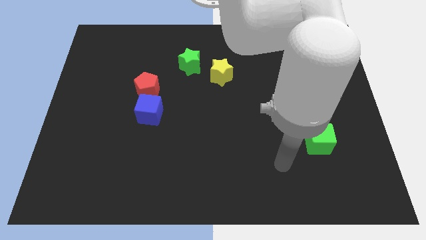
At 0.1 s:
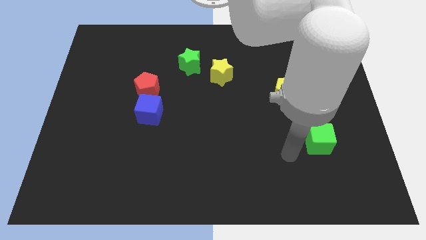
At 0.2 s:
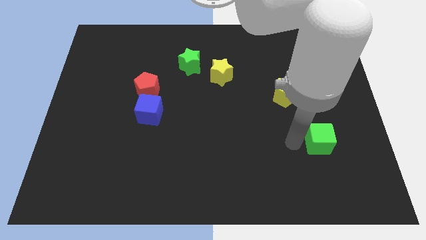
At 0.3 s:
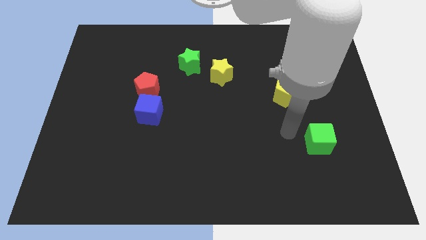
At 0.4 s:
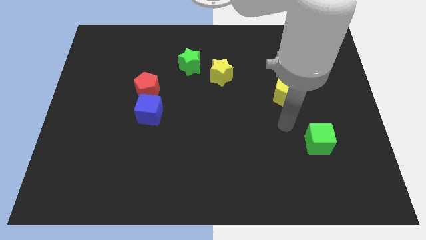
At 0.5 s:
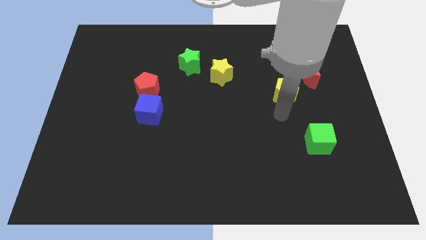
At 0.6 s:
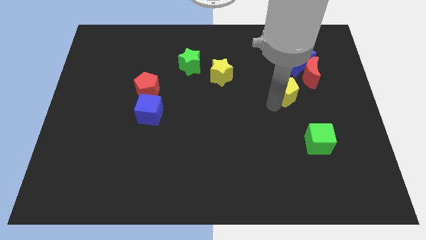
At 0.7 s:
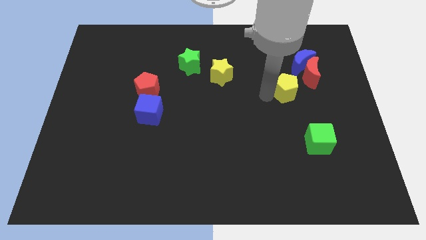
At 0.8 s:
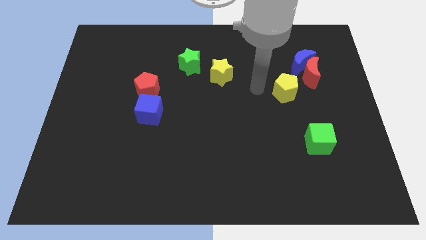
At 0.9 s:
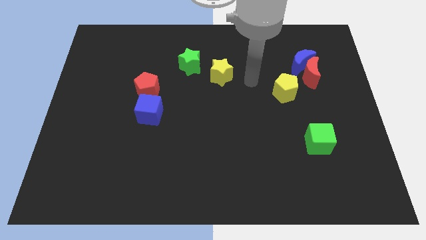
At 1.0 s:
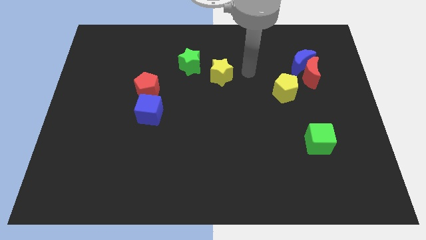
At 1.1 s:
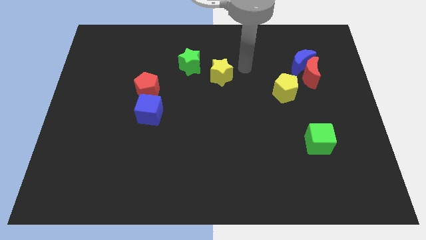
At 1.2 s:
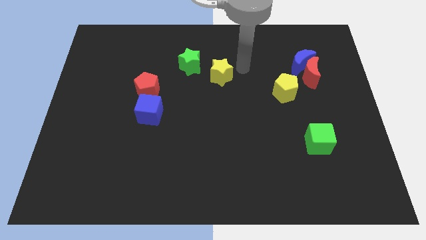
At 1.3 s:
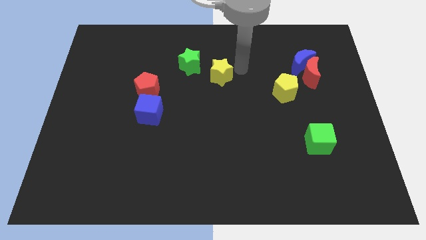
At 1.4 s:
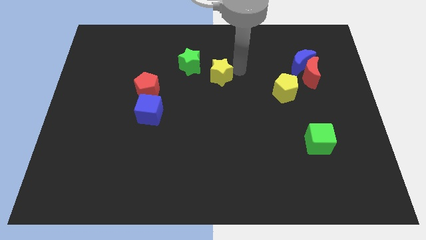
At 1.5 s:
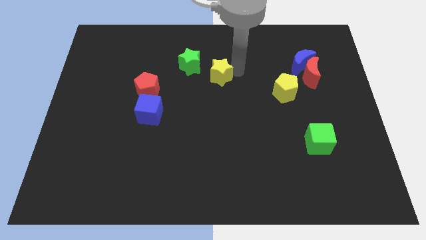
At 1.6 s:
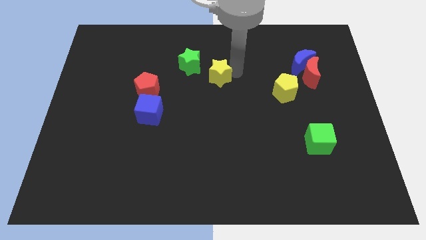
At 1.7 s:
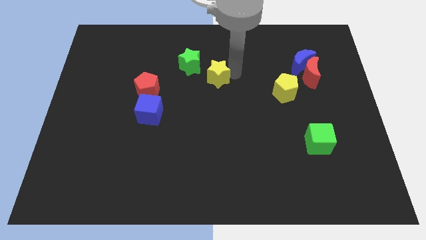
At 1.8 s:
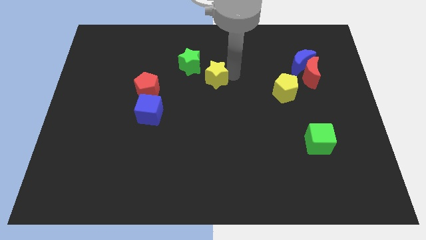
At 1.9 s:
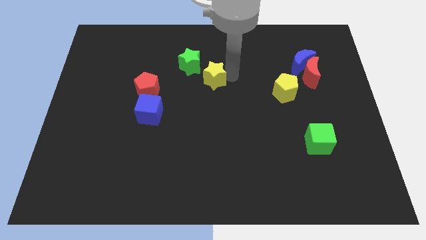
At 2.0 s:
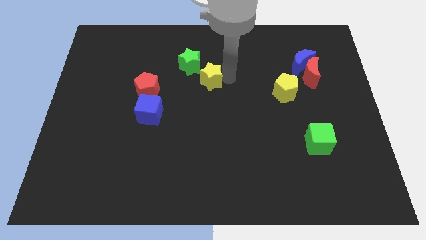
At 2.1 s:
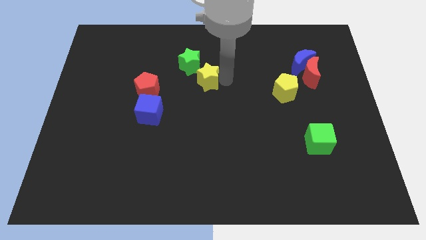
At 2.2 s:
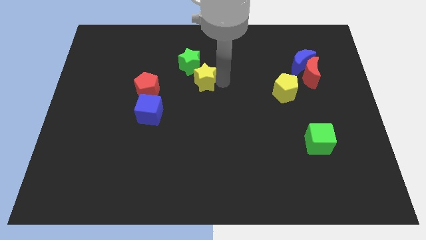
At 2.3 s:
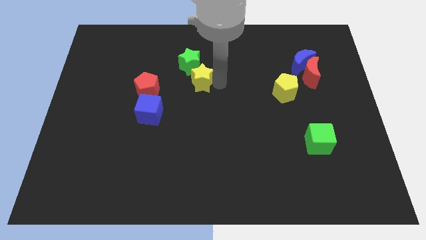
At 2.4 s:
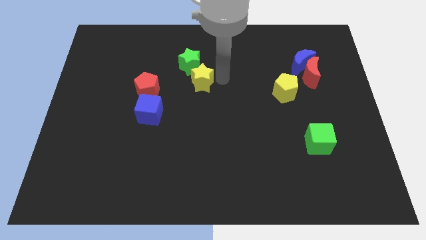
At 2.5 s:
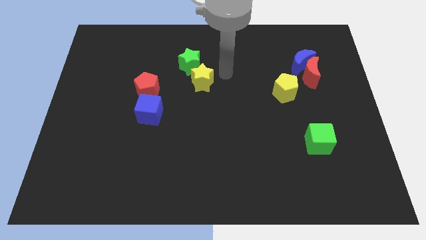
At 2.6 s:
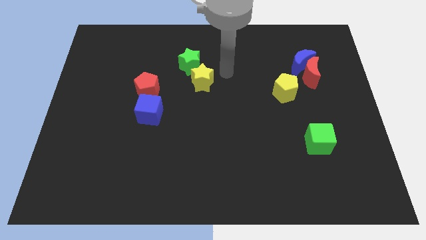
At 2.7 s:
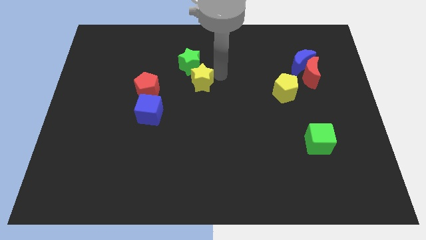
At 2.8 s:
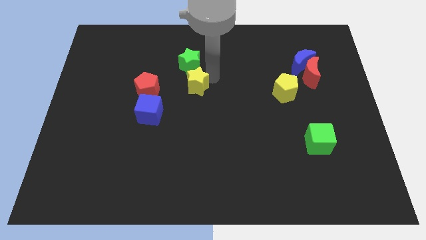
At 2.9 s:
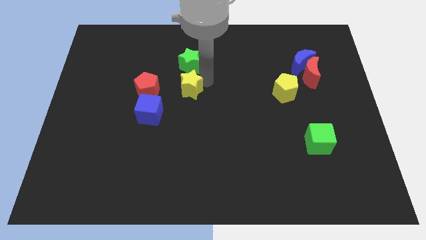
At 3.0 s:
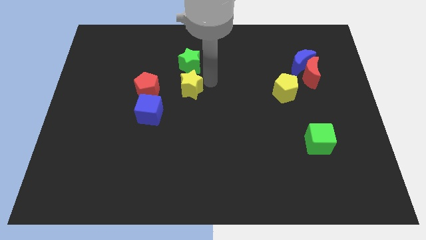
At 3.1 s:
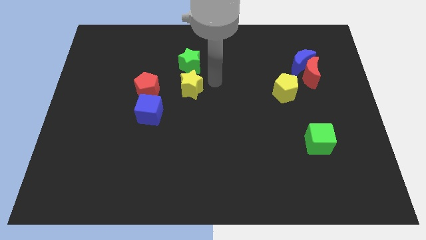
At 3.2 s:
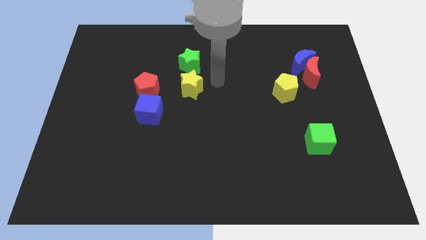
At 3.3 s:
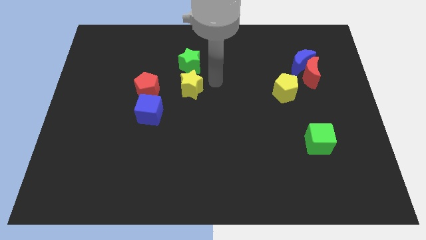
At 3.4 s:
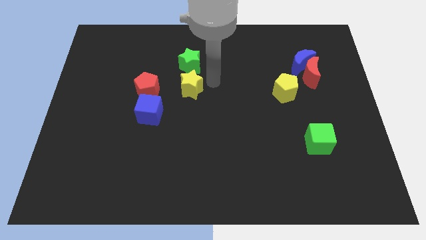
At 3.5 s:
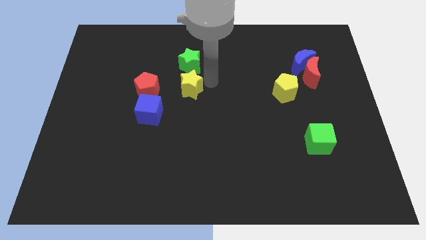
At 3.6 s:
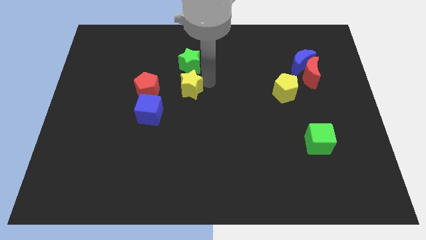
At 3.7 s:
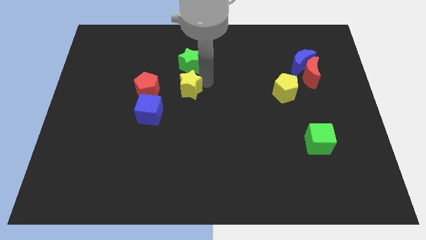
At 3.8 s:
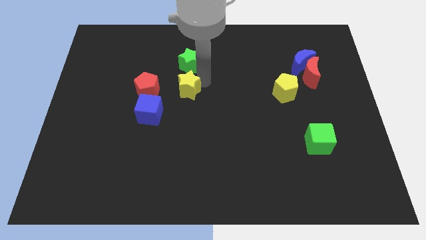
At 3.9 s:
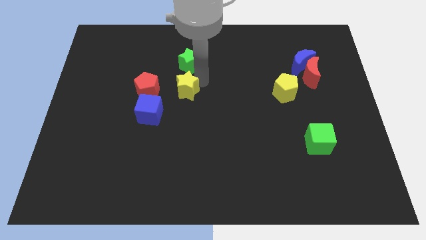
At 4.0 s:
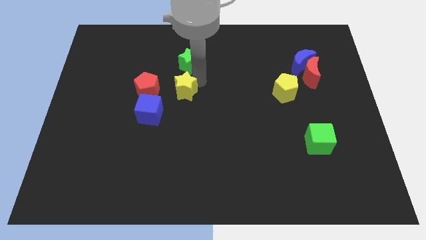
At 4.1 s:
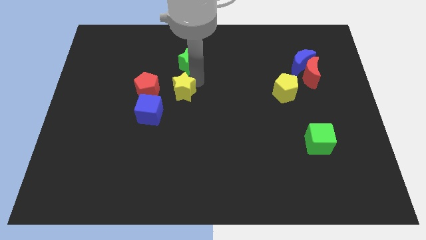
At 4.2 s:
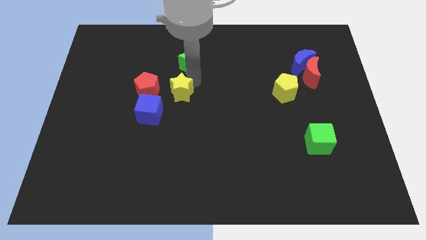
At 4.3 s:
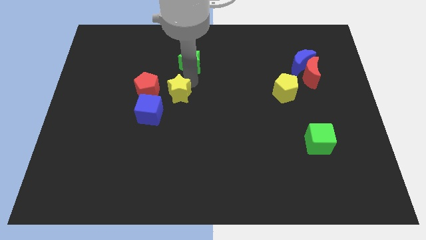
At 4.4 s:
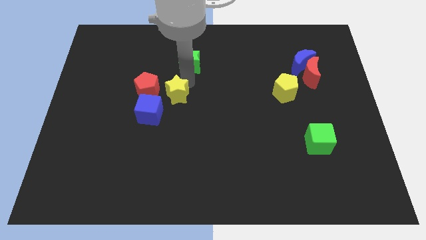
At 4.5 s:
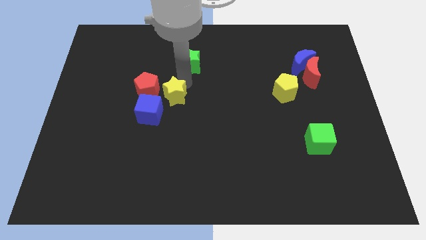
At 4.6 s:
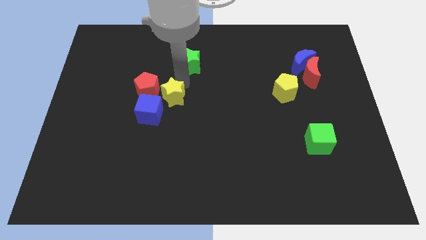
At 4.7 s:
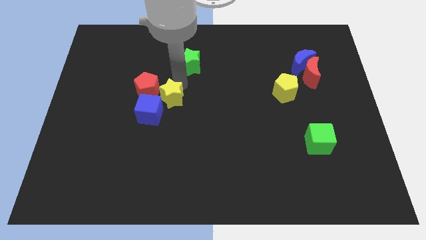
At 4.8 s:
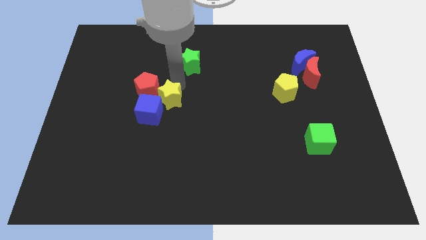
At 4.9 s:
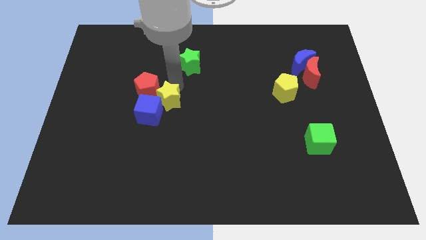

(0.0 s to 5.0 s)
slide the yellow star close to the blue cube

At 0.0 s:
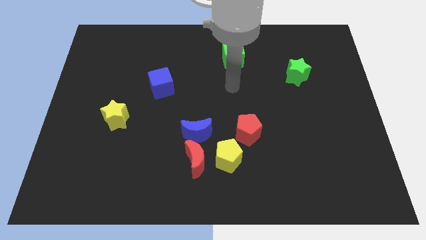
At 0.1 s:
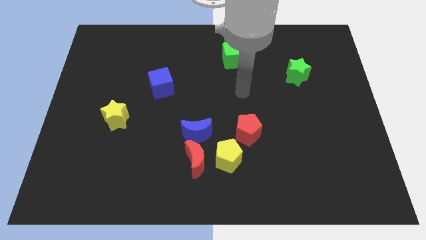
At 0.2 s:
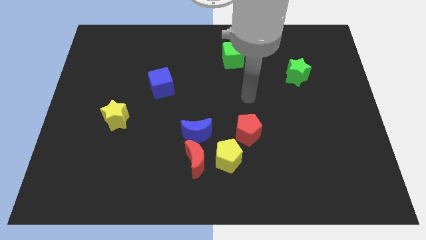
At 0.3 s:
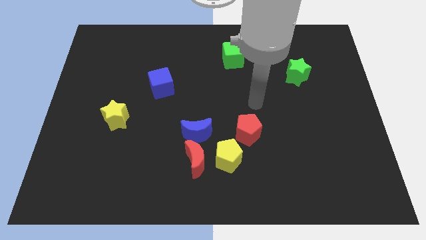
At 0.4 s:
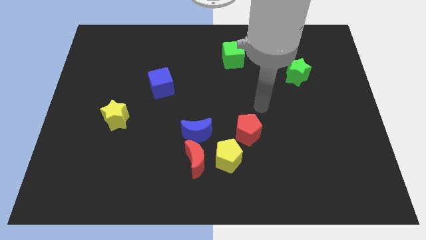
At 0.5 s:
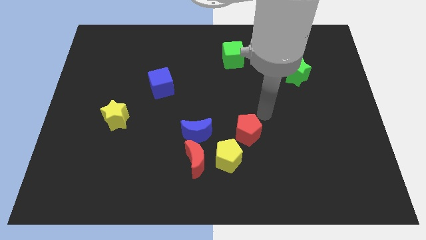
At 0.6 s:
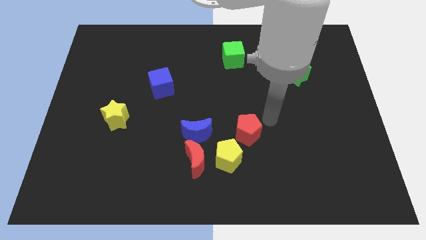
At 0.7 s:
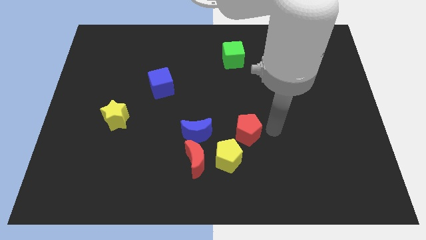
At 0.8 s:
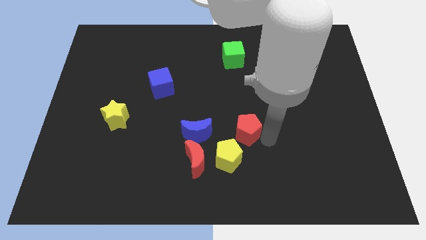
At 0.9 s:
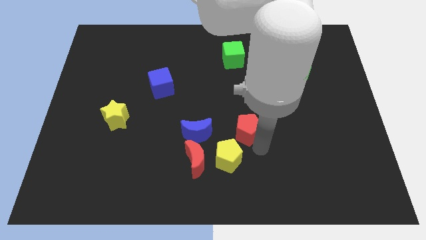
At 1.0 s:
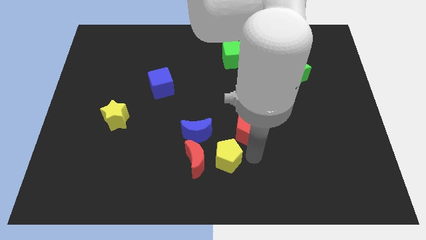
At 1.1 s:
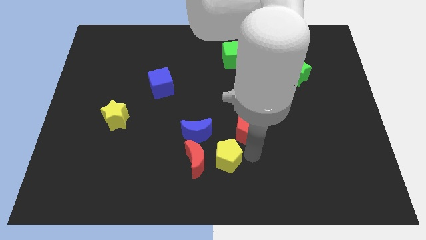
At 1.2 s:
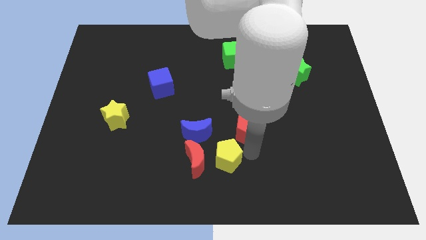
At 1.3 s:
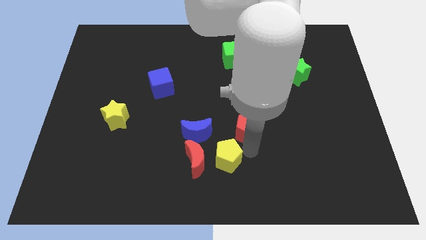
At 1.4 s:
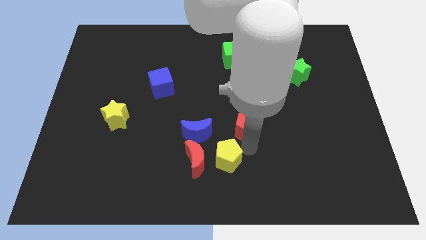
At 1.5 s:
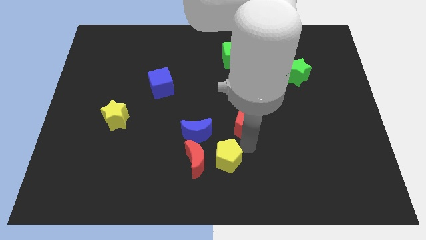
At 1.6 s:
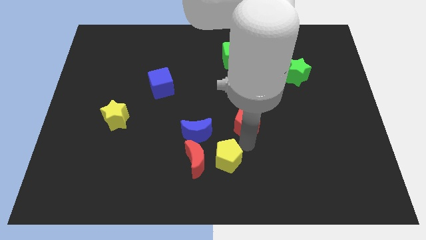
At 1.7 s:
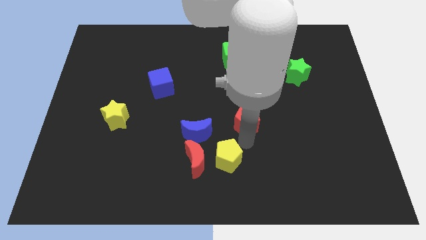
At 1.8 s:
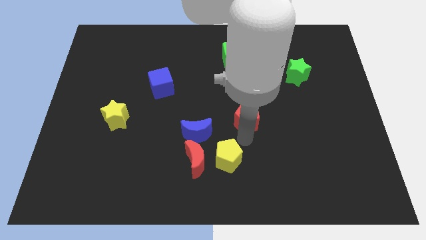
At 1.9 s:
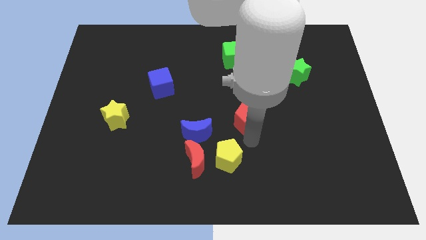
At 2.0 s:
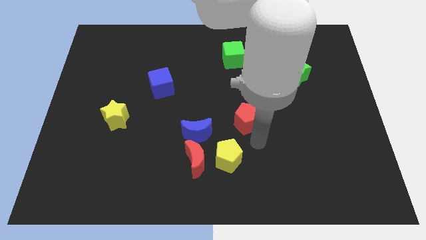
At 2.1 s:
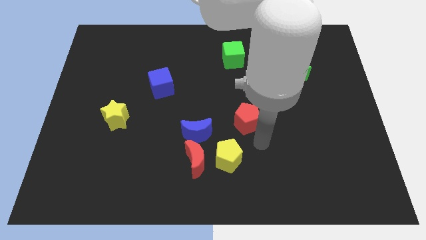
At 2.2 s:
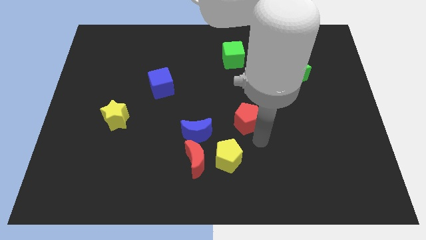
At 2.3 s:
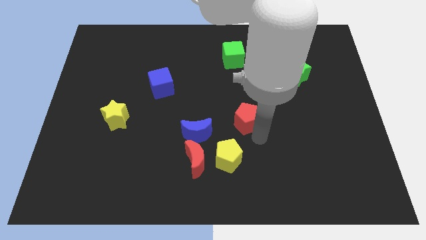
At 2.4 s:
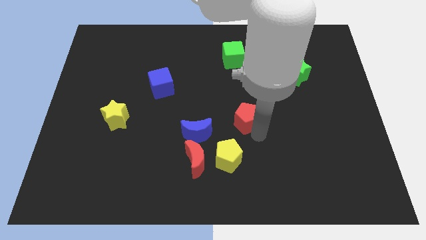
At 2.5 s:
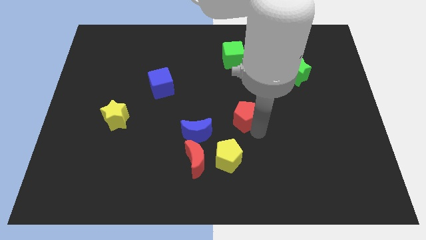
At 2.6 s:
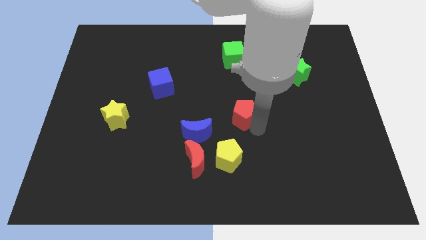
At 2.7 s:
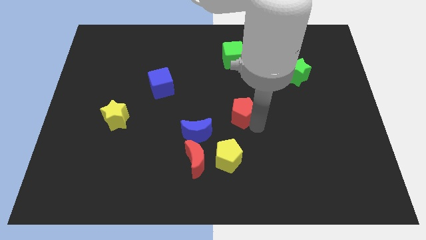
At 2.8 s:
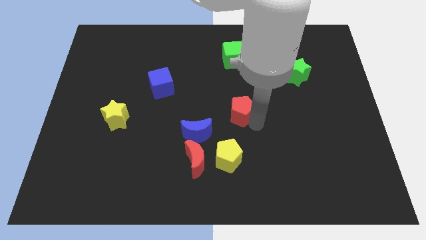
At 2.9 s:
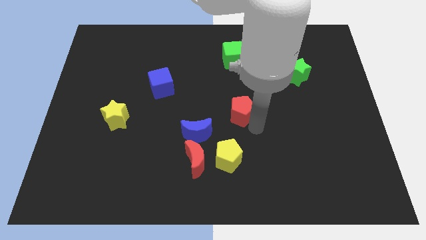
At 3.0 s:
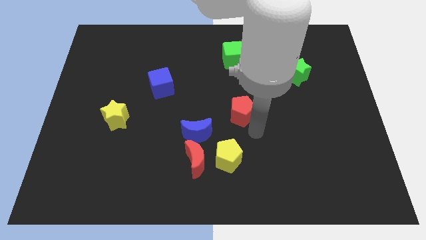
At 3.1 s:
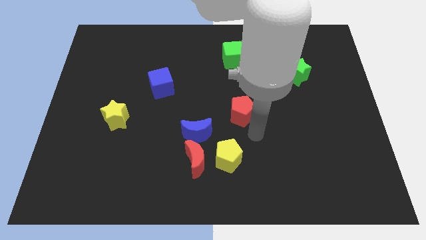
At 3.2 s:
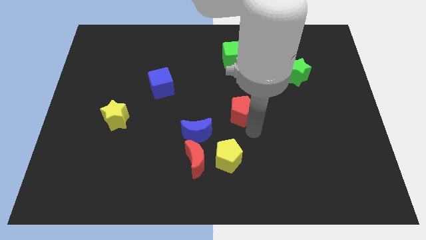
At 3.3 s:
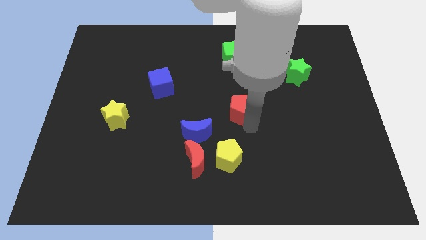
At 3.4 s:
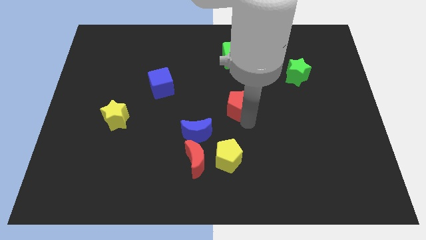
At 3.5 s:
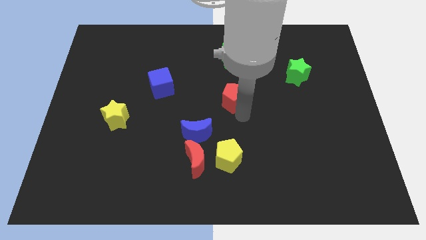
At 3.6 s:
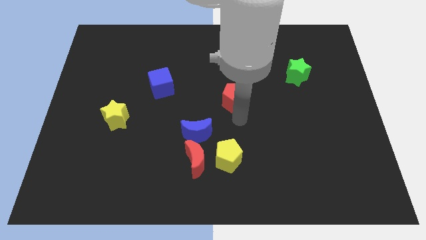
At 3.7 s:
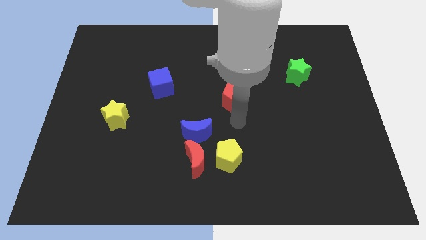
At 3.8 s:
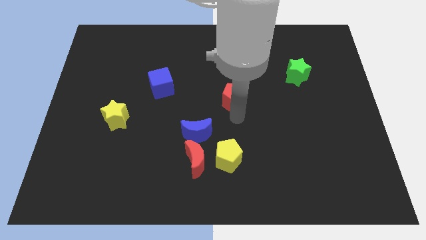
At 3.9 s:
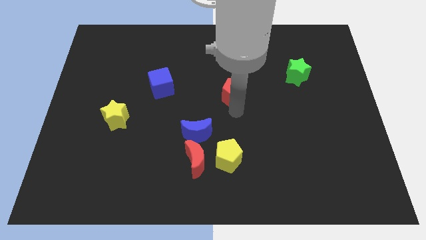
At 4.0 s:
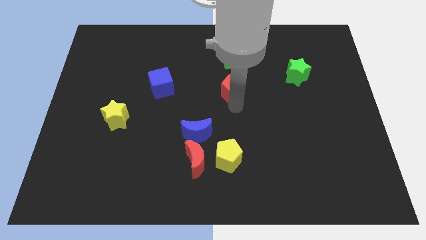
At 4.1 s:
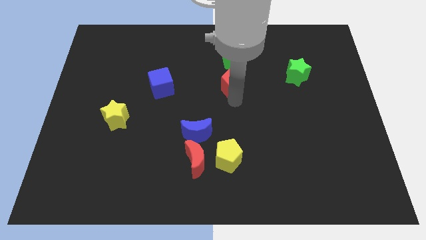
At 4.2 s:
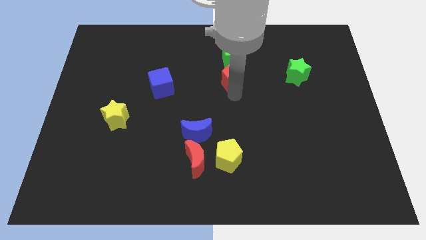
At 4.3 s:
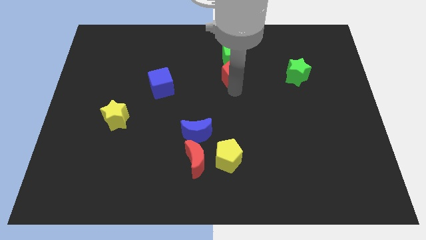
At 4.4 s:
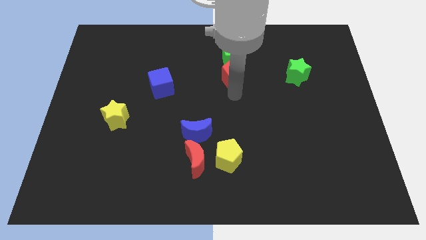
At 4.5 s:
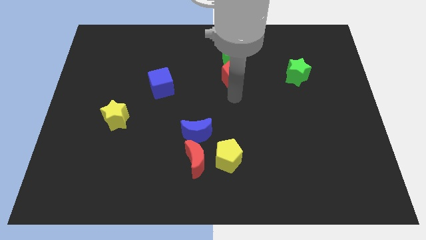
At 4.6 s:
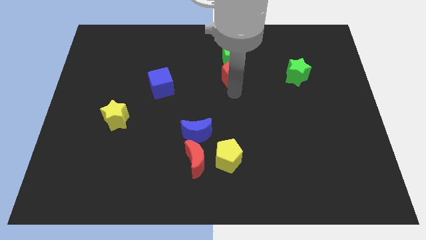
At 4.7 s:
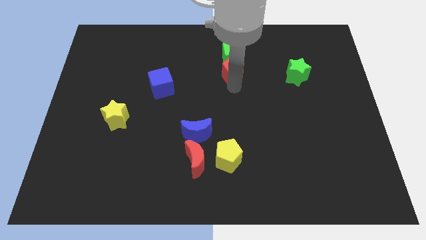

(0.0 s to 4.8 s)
push the red pentagon towards the green cube
